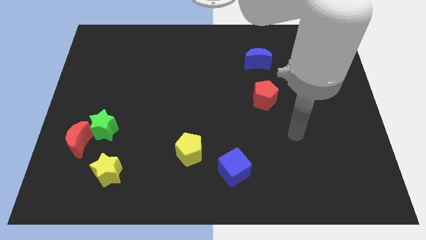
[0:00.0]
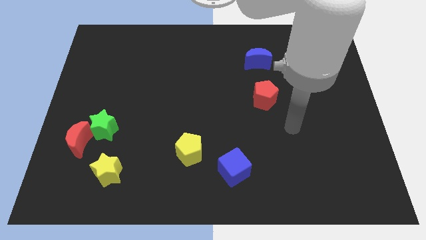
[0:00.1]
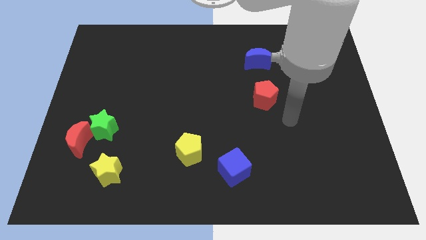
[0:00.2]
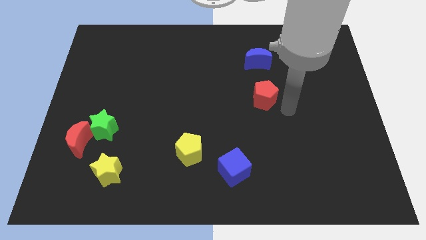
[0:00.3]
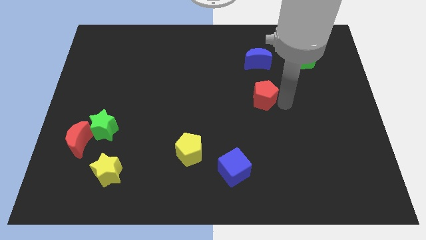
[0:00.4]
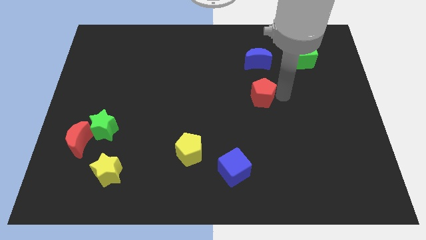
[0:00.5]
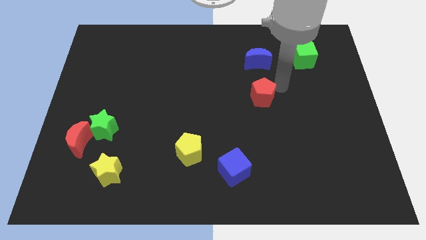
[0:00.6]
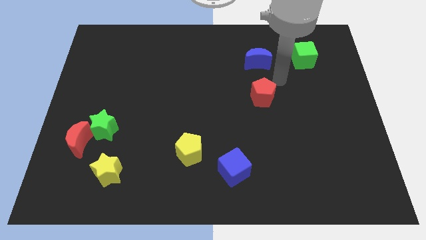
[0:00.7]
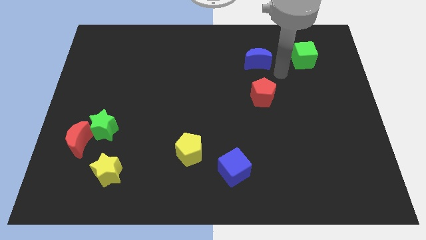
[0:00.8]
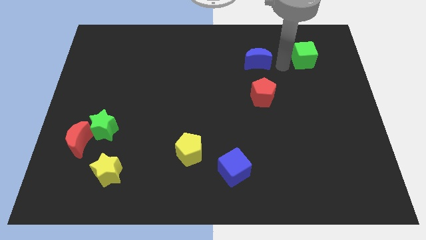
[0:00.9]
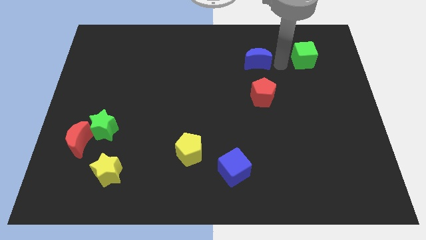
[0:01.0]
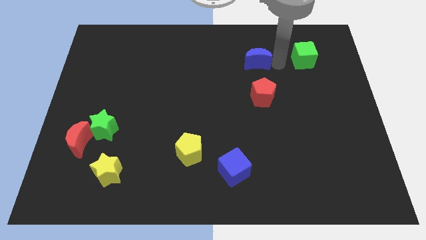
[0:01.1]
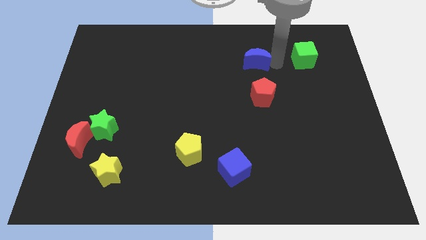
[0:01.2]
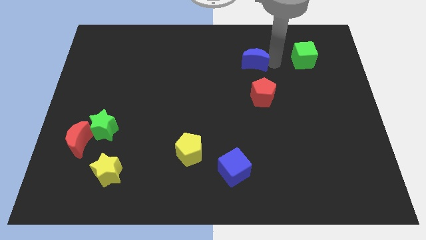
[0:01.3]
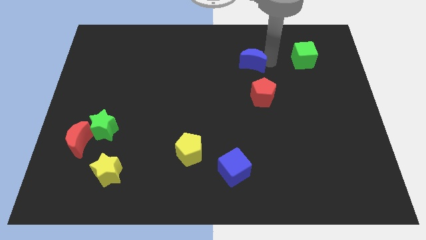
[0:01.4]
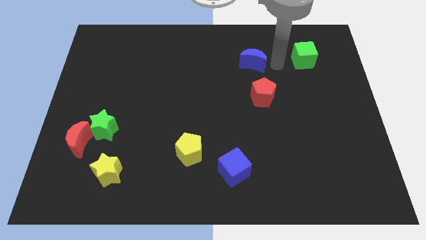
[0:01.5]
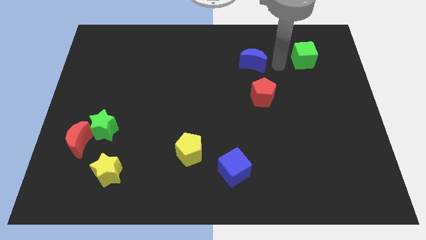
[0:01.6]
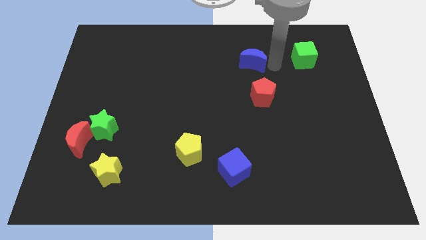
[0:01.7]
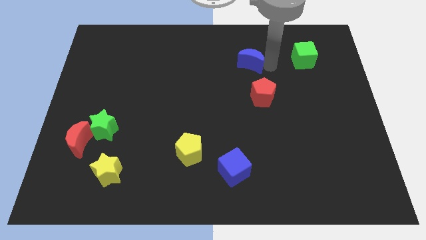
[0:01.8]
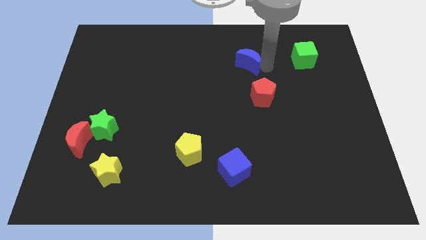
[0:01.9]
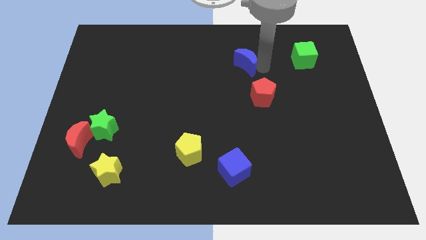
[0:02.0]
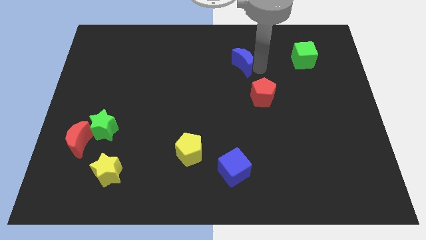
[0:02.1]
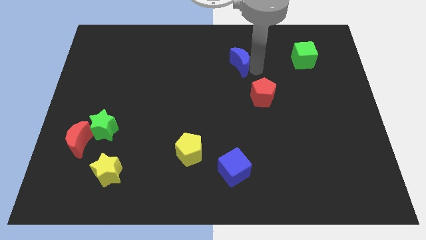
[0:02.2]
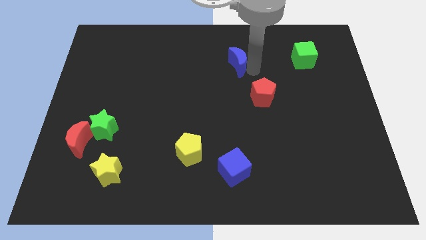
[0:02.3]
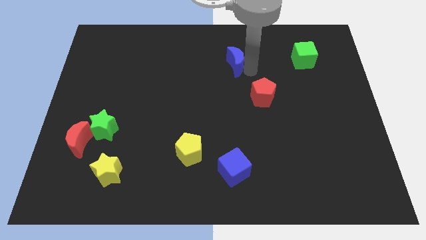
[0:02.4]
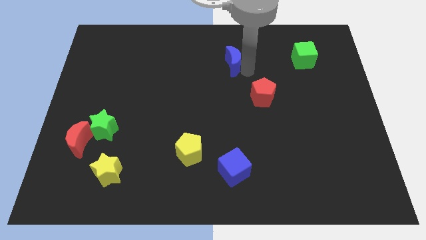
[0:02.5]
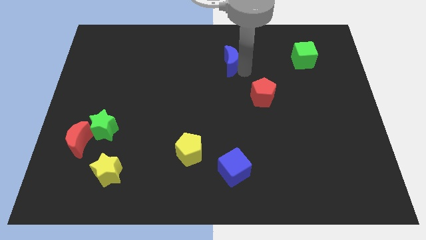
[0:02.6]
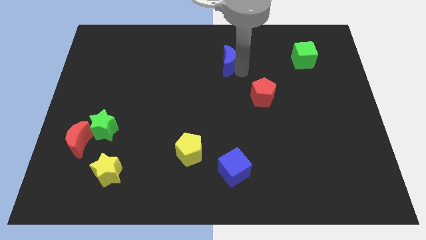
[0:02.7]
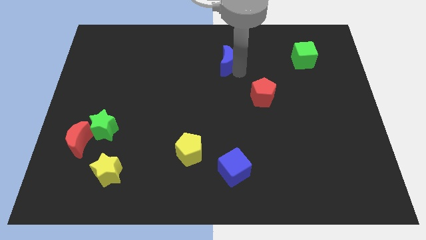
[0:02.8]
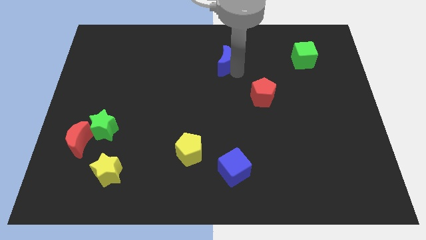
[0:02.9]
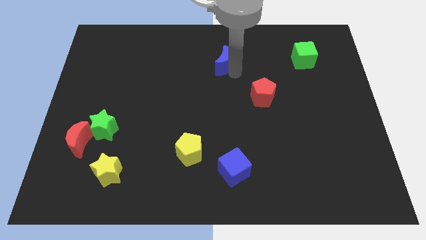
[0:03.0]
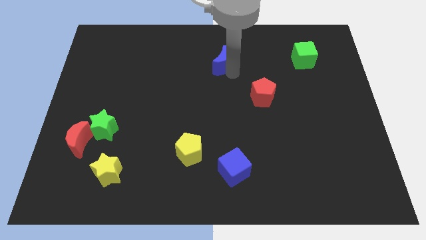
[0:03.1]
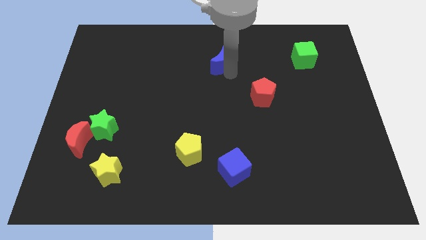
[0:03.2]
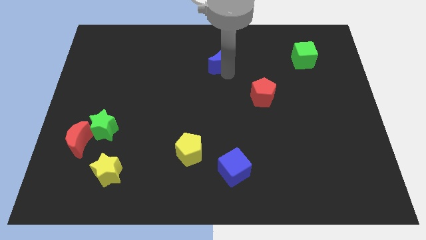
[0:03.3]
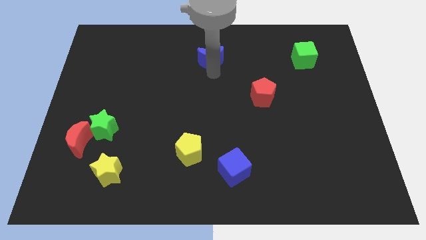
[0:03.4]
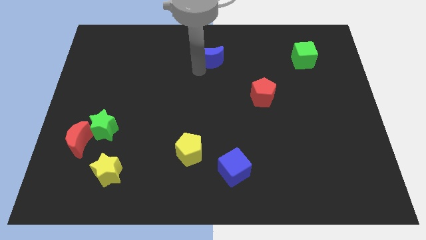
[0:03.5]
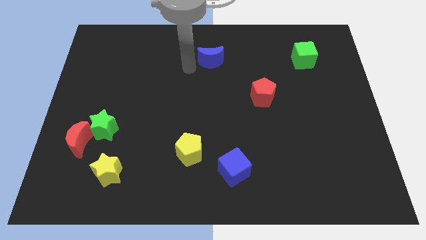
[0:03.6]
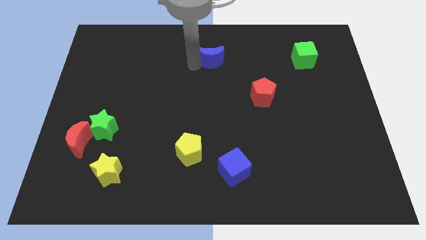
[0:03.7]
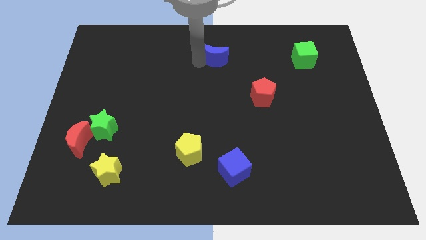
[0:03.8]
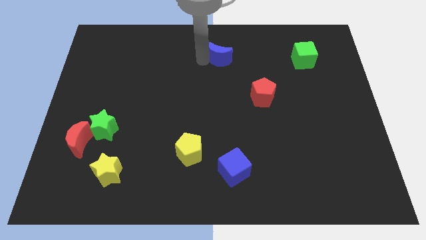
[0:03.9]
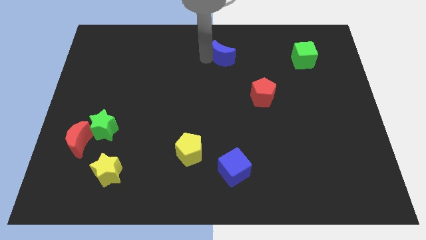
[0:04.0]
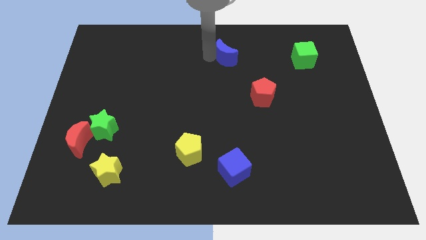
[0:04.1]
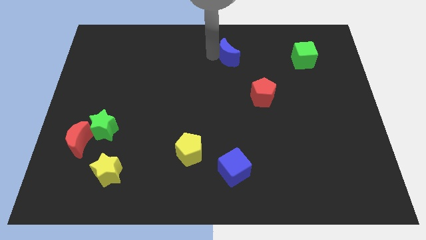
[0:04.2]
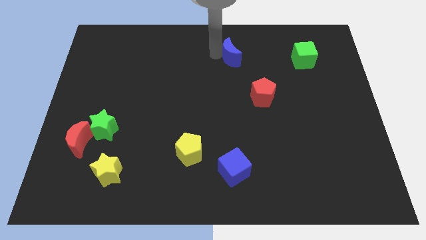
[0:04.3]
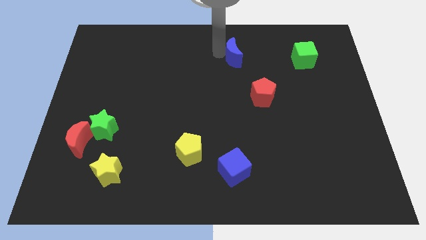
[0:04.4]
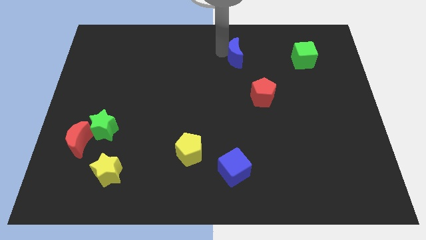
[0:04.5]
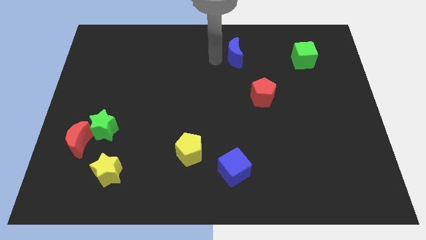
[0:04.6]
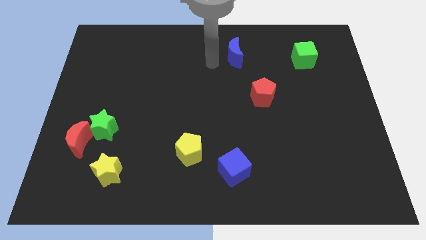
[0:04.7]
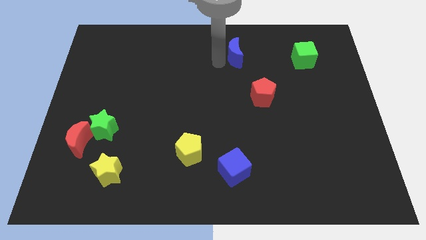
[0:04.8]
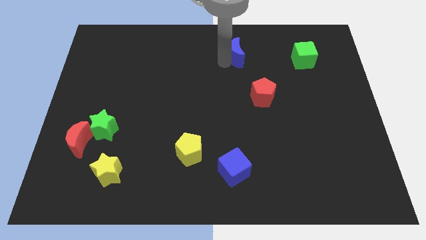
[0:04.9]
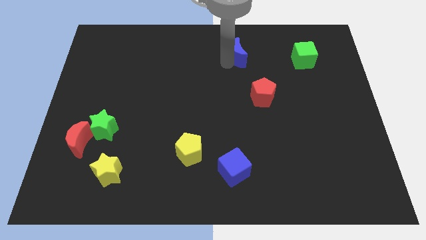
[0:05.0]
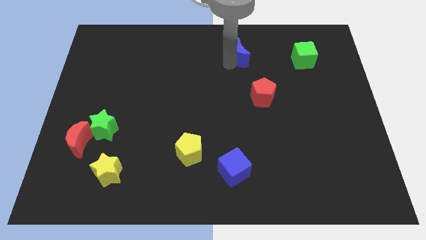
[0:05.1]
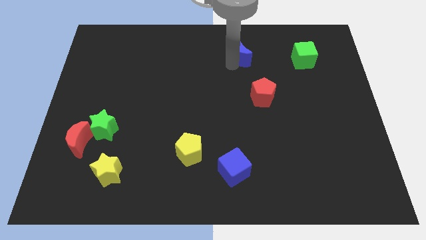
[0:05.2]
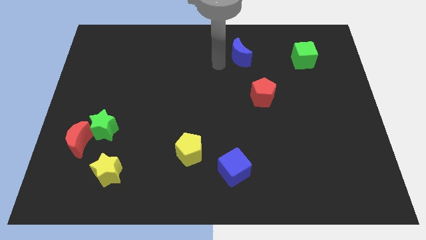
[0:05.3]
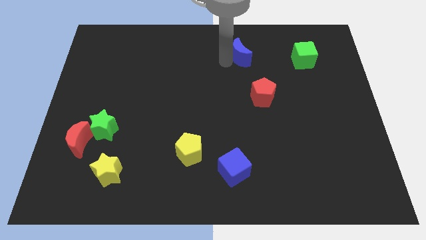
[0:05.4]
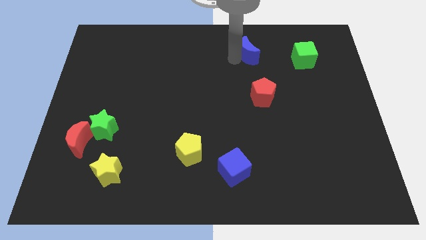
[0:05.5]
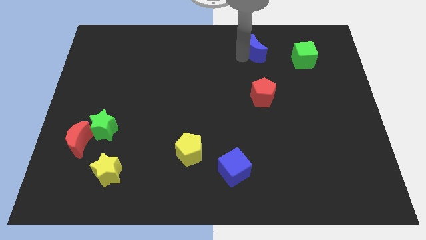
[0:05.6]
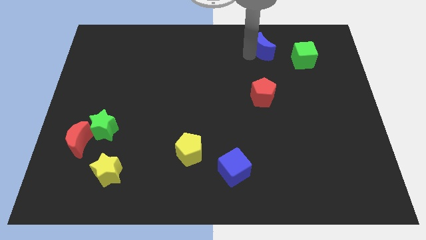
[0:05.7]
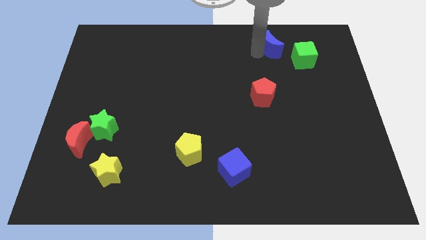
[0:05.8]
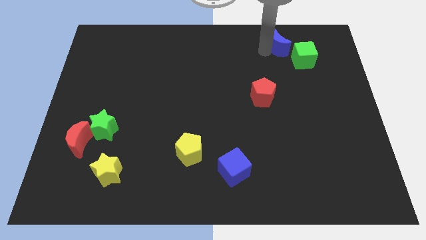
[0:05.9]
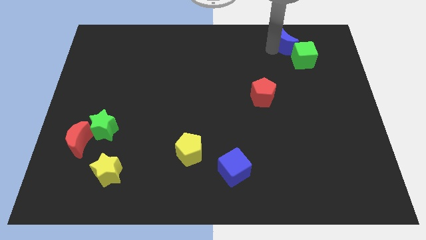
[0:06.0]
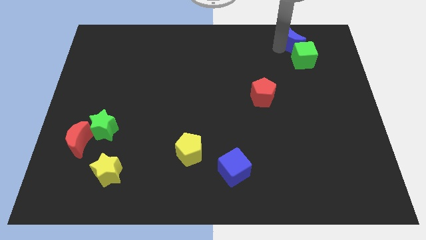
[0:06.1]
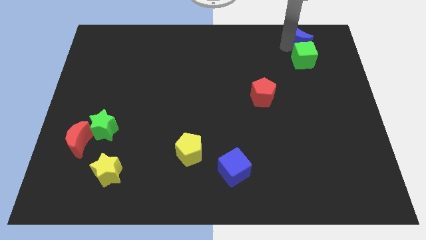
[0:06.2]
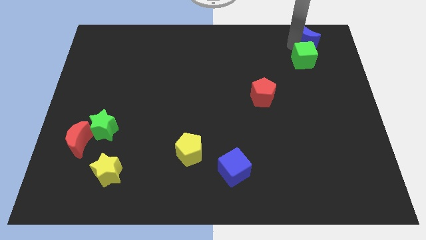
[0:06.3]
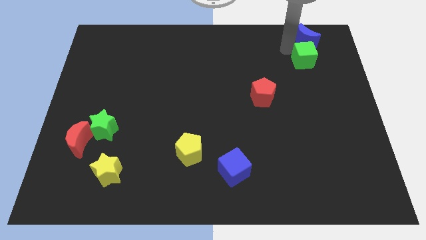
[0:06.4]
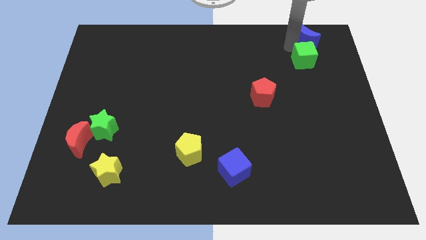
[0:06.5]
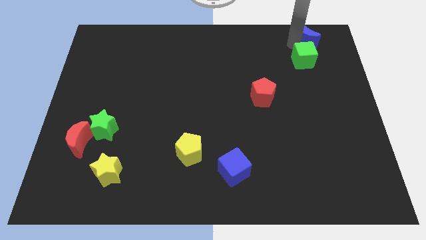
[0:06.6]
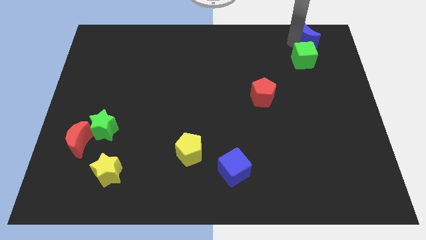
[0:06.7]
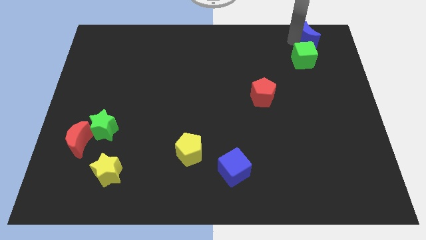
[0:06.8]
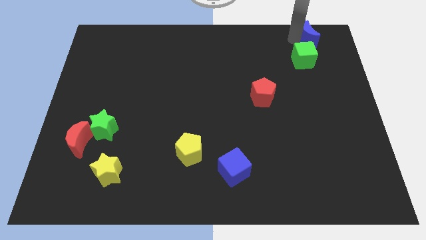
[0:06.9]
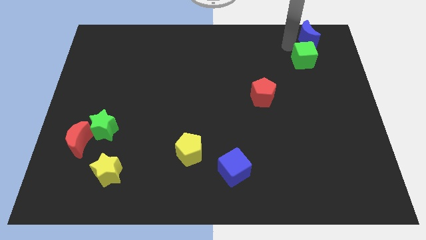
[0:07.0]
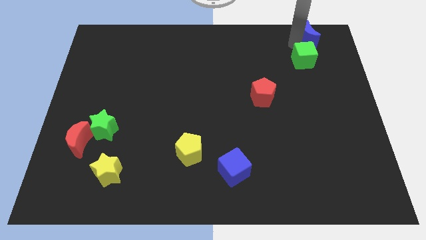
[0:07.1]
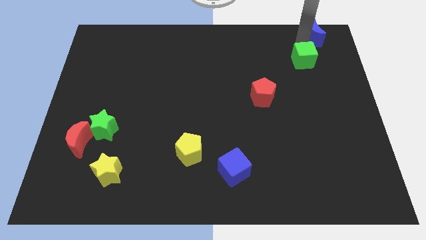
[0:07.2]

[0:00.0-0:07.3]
move the blue moon to the top right corner

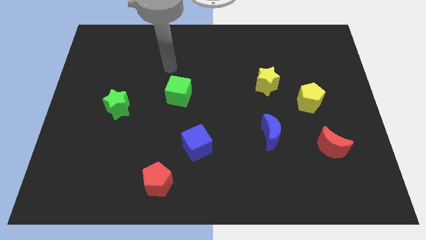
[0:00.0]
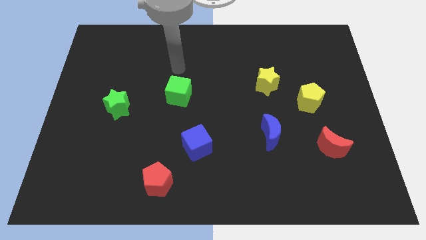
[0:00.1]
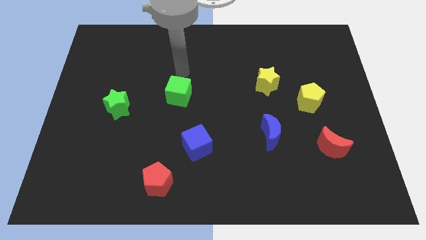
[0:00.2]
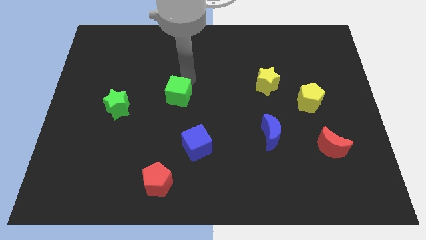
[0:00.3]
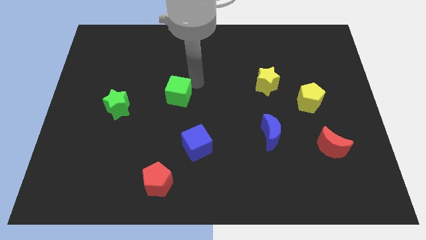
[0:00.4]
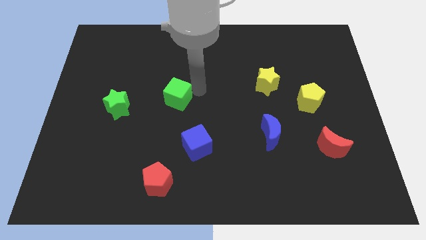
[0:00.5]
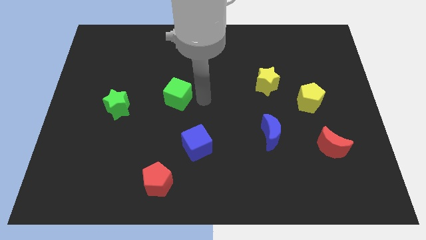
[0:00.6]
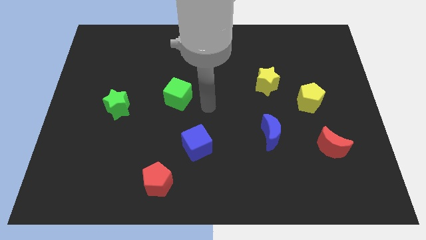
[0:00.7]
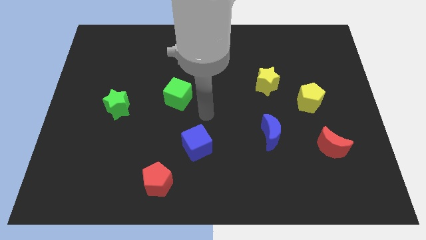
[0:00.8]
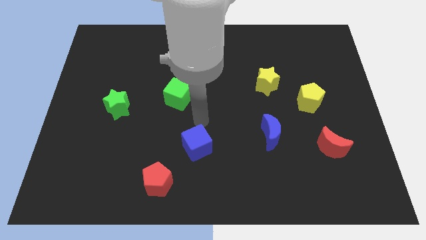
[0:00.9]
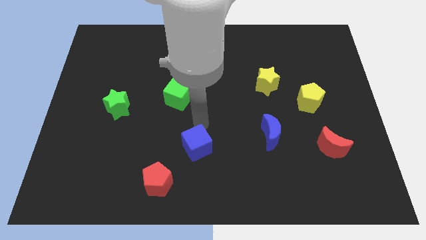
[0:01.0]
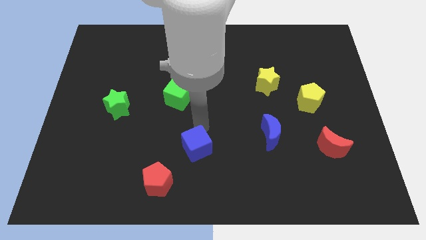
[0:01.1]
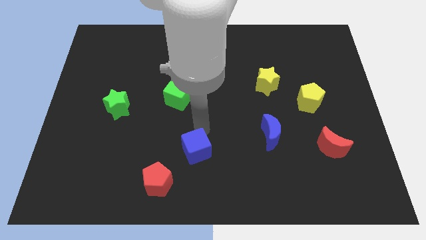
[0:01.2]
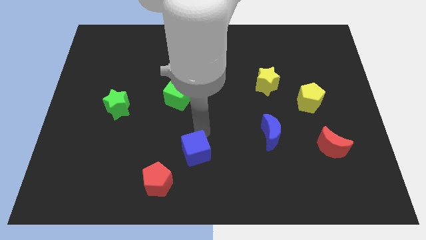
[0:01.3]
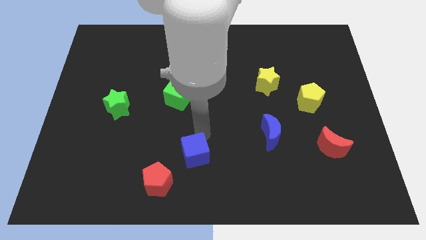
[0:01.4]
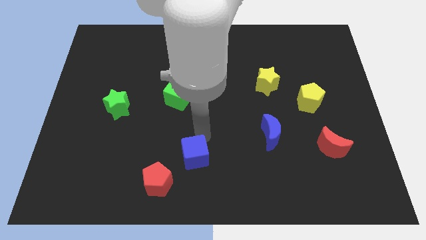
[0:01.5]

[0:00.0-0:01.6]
put the blue cube to the bottom
